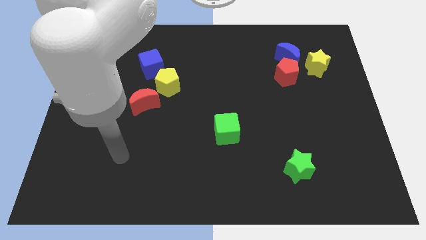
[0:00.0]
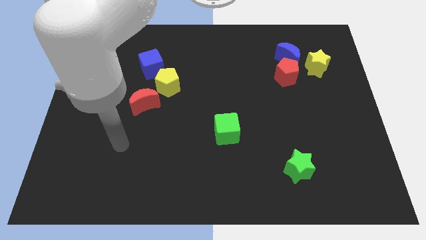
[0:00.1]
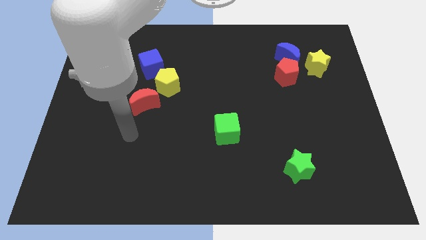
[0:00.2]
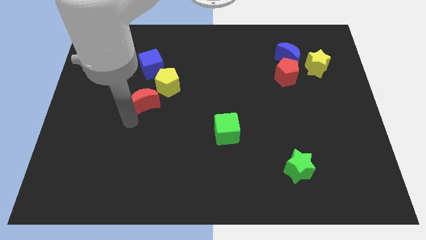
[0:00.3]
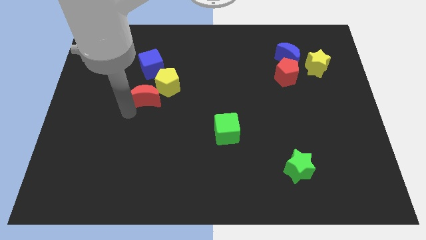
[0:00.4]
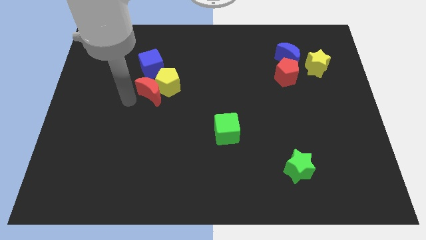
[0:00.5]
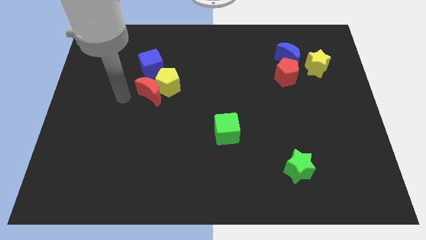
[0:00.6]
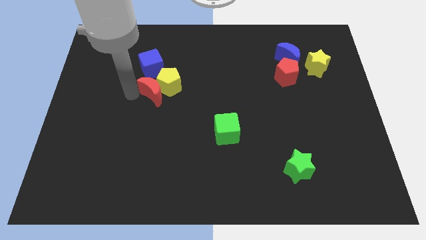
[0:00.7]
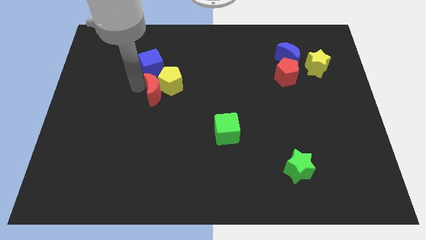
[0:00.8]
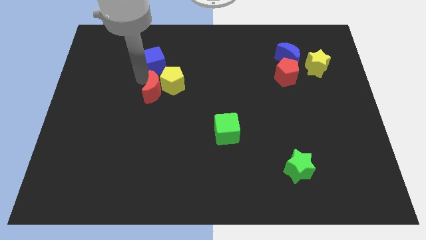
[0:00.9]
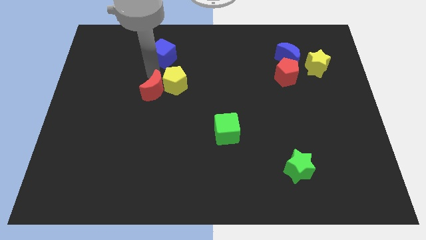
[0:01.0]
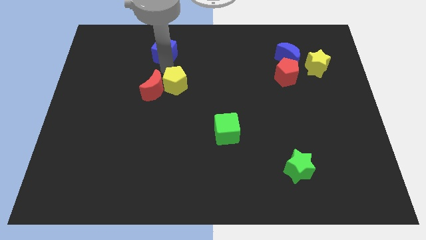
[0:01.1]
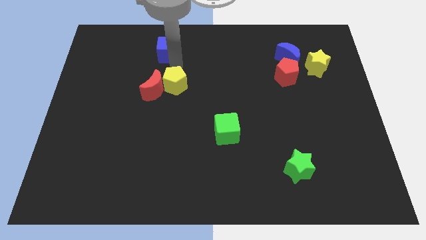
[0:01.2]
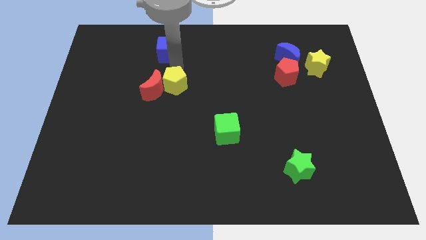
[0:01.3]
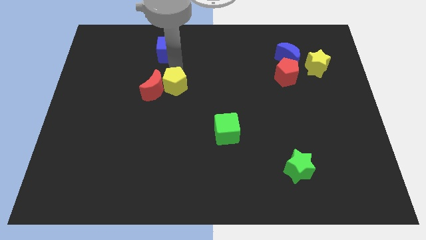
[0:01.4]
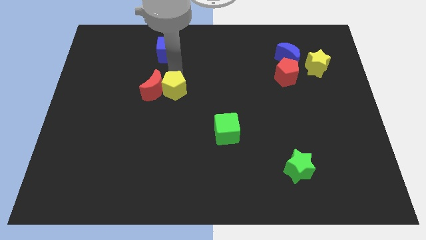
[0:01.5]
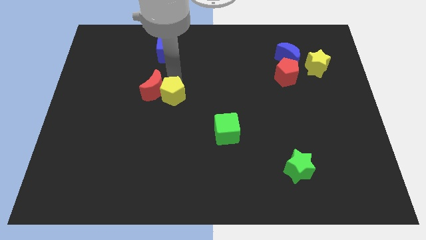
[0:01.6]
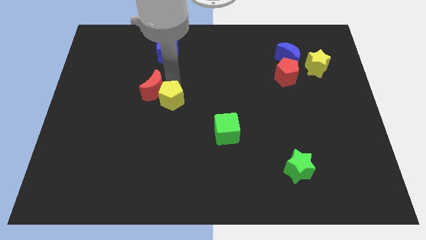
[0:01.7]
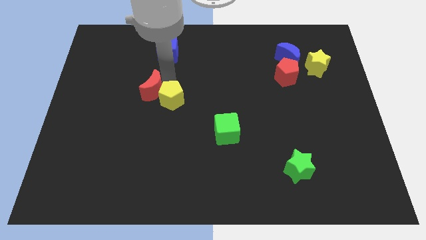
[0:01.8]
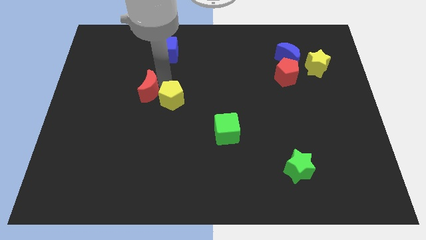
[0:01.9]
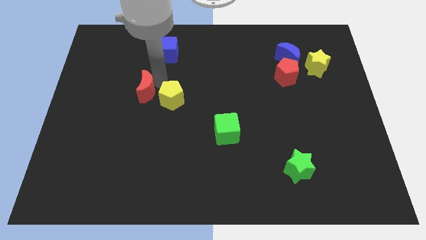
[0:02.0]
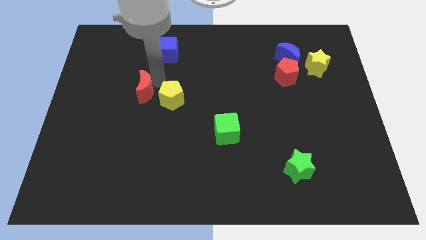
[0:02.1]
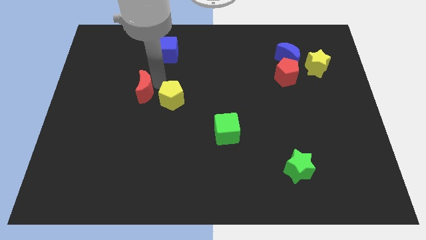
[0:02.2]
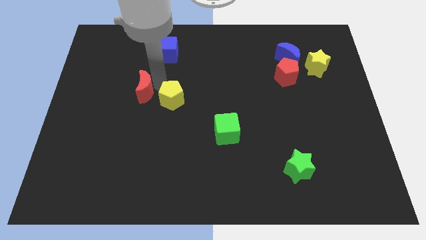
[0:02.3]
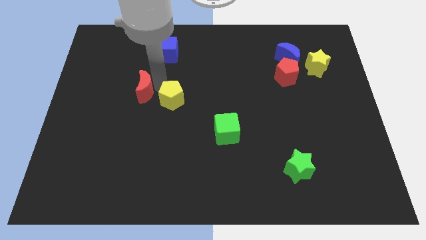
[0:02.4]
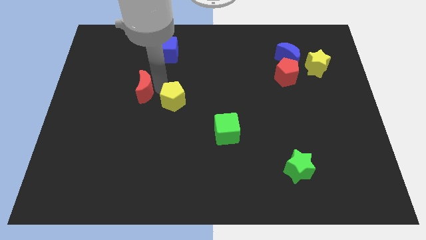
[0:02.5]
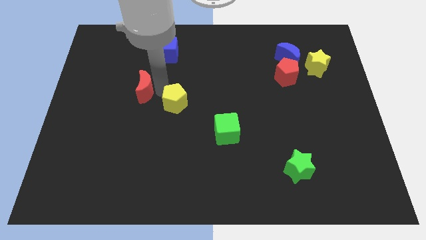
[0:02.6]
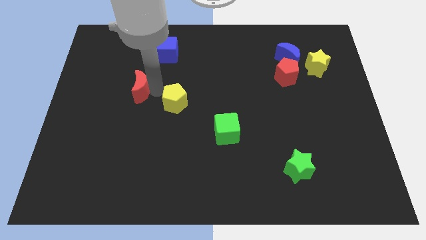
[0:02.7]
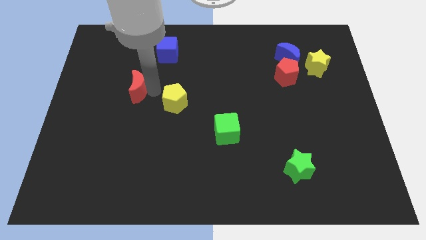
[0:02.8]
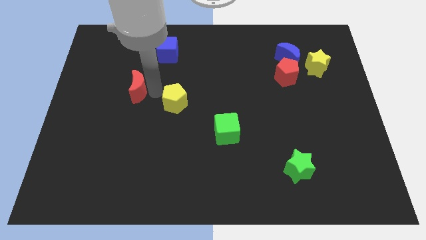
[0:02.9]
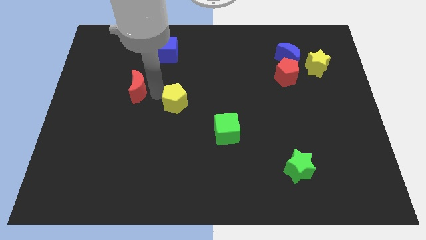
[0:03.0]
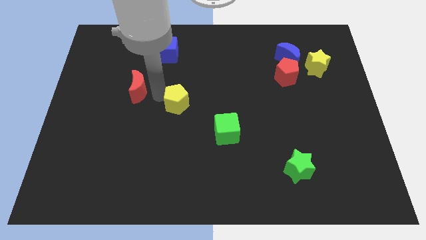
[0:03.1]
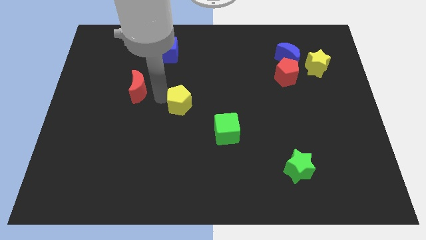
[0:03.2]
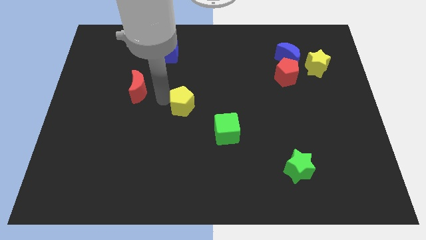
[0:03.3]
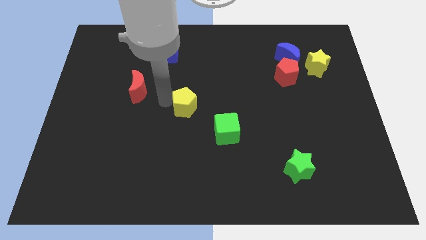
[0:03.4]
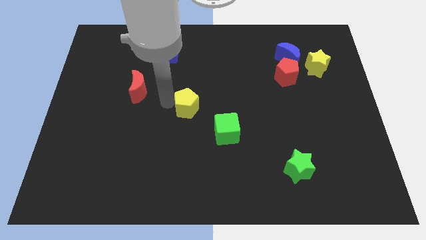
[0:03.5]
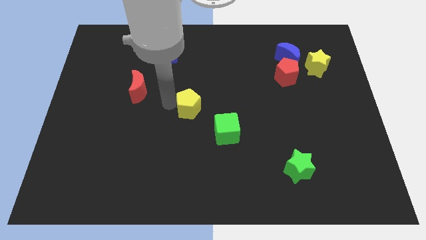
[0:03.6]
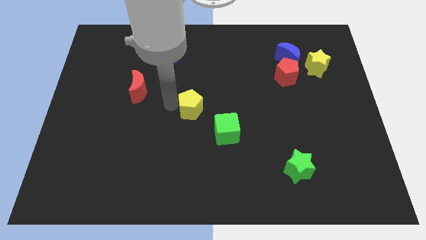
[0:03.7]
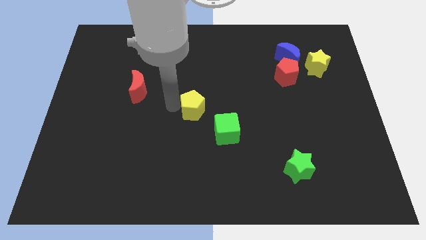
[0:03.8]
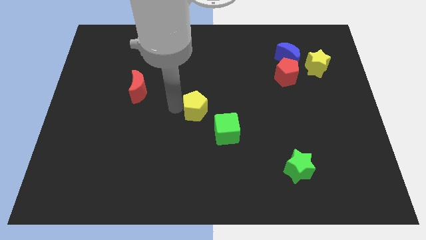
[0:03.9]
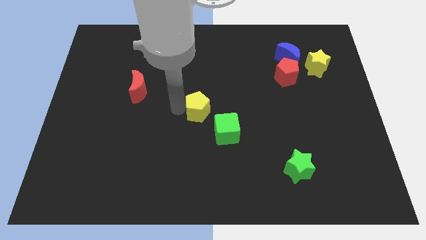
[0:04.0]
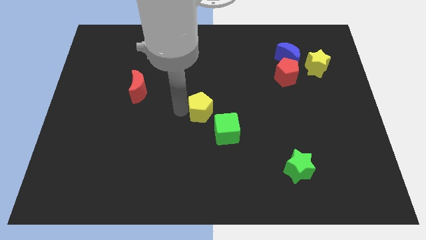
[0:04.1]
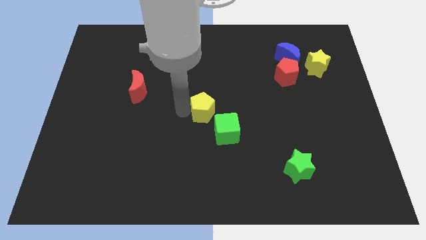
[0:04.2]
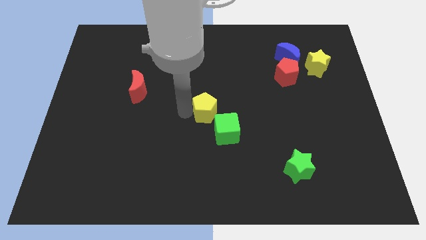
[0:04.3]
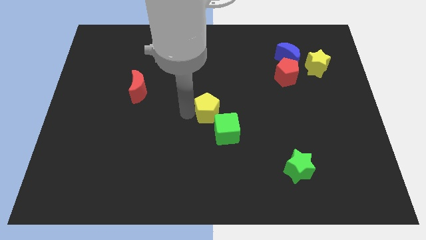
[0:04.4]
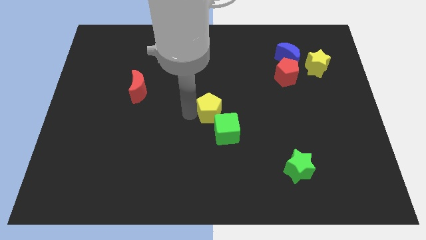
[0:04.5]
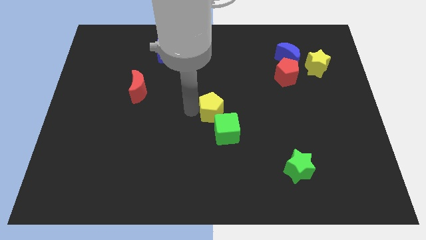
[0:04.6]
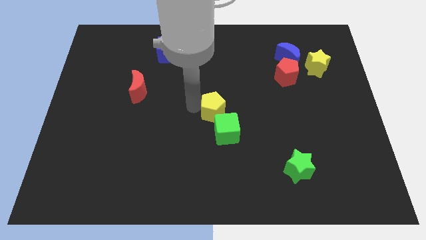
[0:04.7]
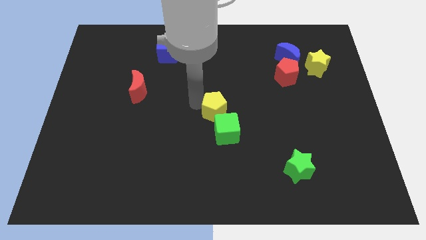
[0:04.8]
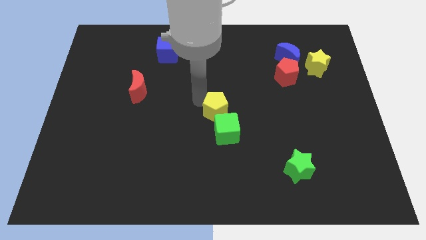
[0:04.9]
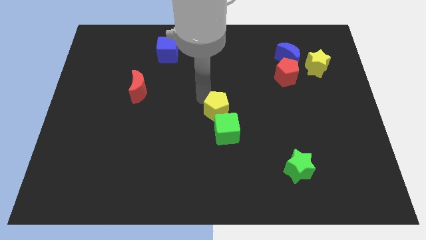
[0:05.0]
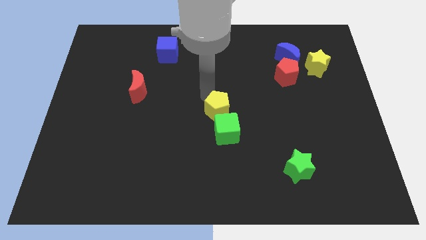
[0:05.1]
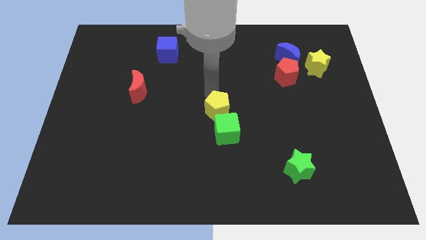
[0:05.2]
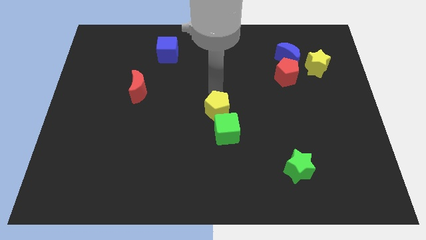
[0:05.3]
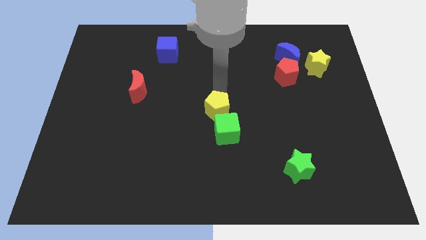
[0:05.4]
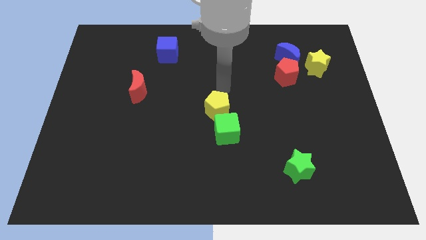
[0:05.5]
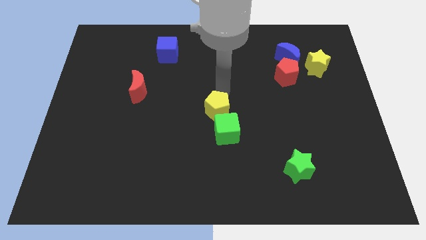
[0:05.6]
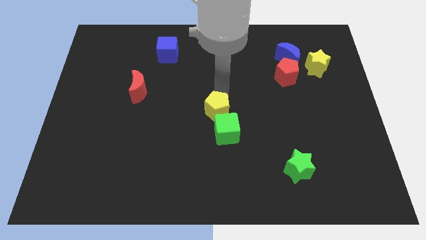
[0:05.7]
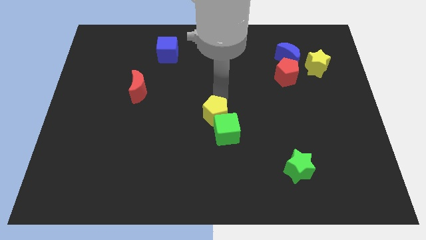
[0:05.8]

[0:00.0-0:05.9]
push the yellow pentagon towards the green cube

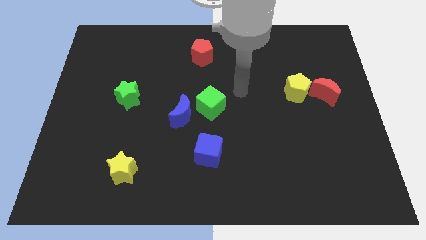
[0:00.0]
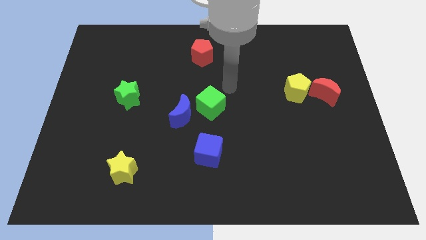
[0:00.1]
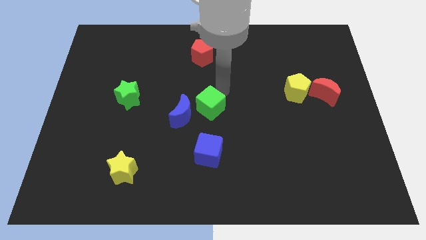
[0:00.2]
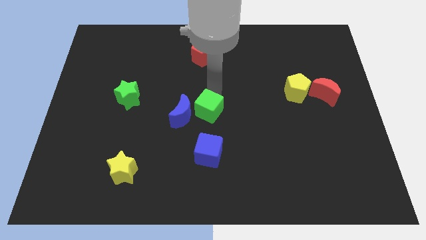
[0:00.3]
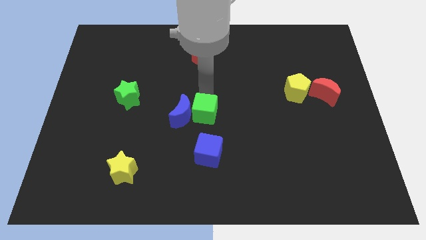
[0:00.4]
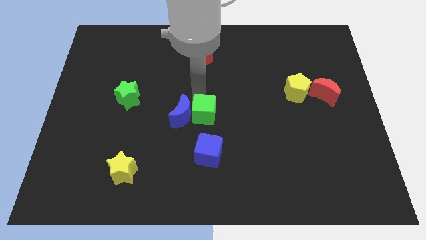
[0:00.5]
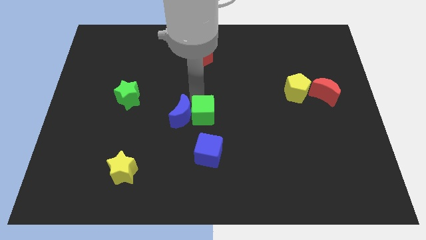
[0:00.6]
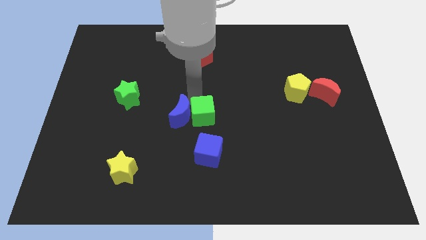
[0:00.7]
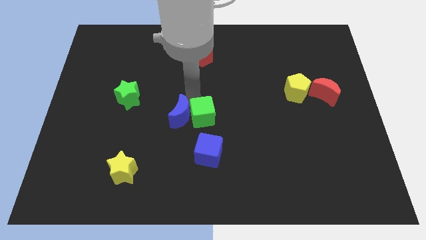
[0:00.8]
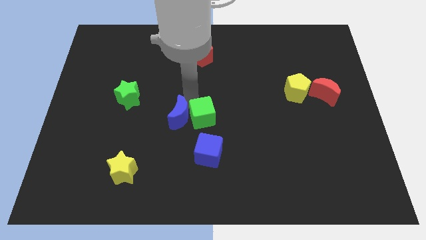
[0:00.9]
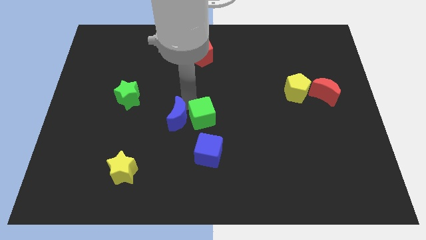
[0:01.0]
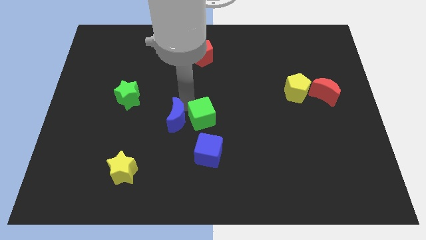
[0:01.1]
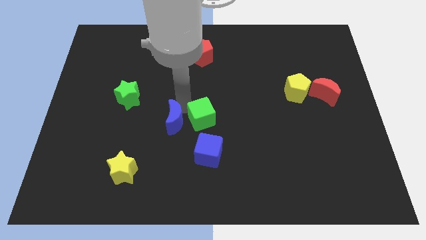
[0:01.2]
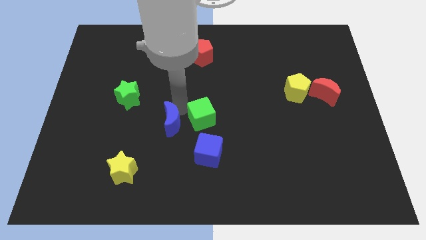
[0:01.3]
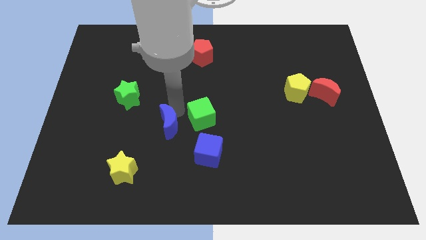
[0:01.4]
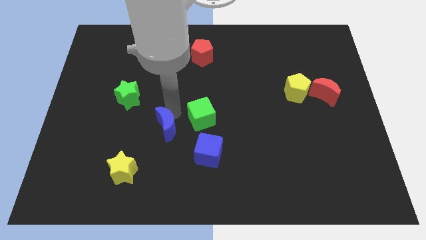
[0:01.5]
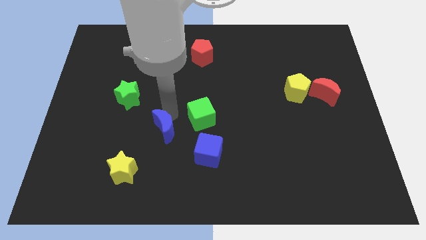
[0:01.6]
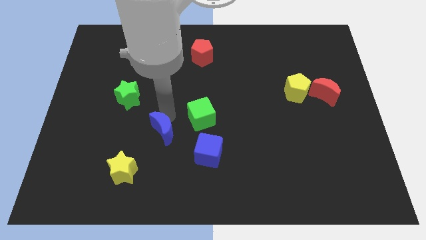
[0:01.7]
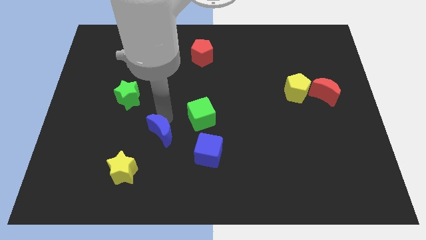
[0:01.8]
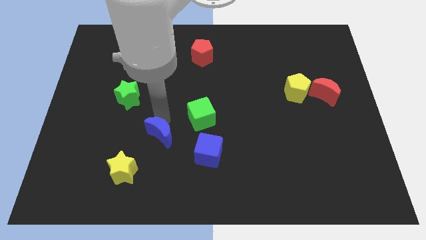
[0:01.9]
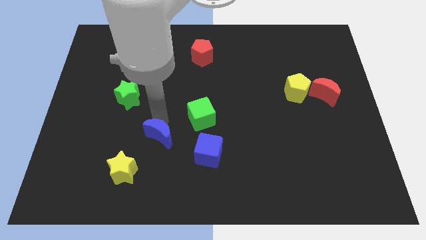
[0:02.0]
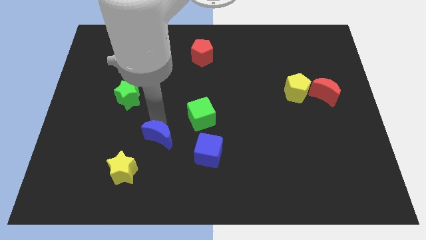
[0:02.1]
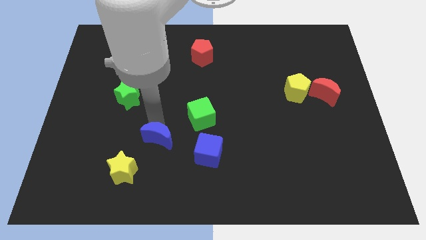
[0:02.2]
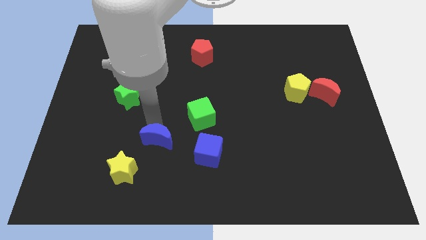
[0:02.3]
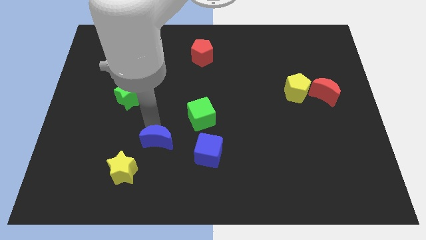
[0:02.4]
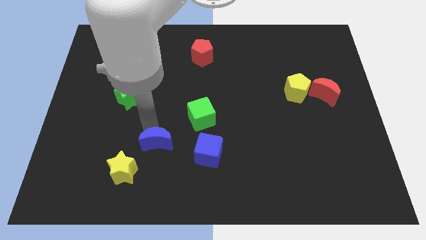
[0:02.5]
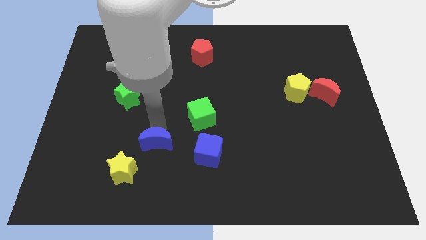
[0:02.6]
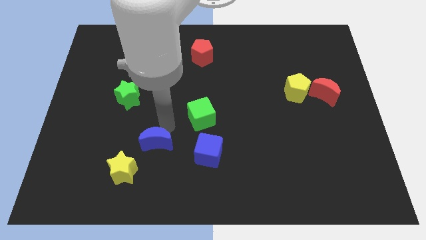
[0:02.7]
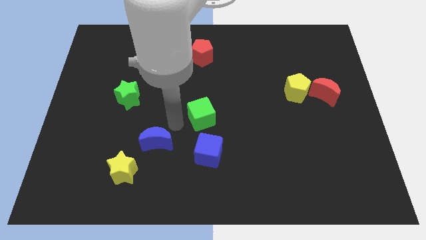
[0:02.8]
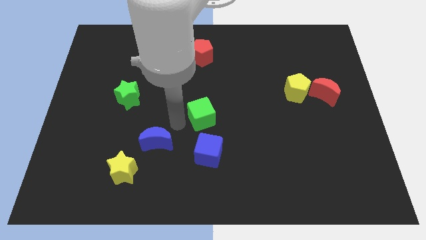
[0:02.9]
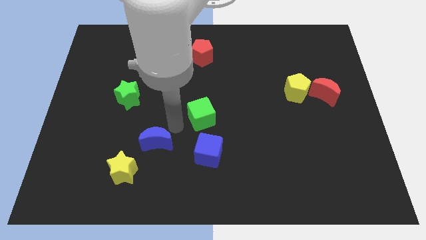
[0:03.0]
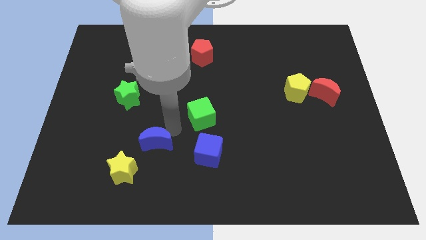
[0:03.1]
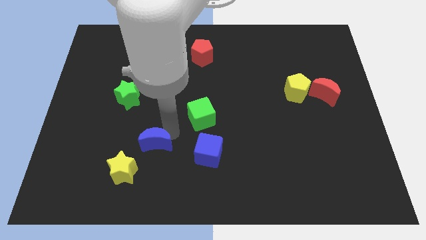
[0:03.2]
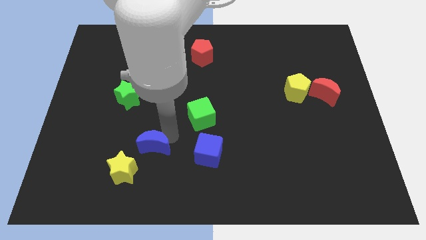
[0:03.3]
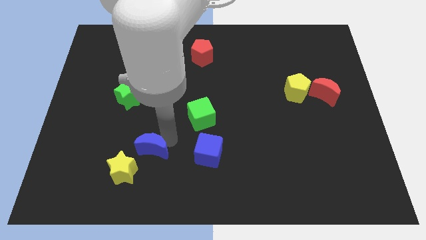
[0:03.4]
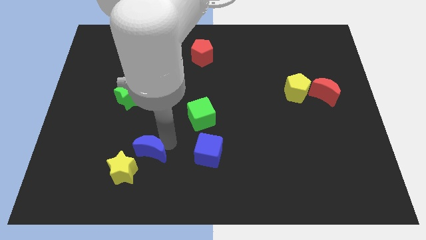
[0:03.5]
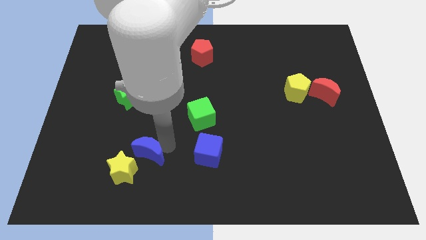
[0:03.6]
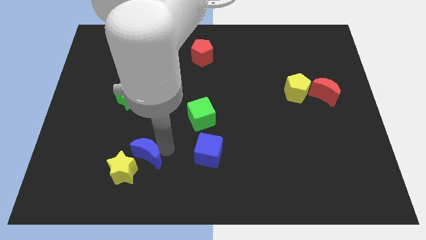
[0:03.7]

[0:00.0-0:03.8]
slide the blue moon to the yellow star
